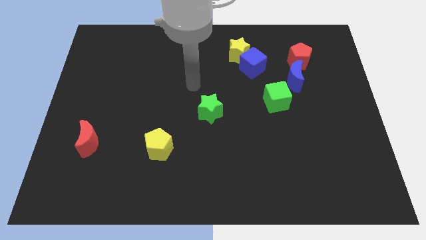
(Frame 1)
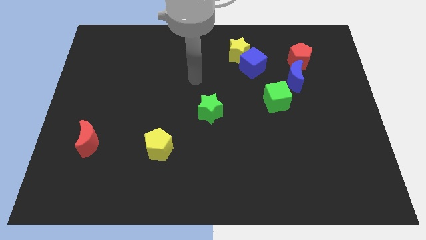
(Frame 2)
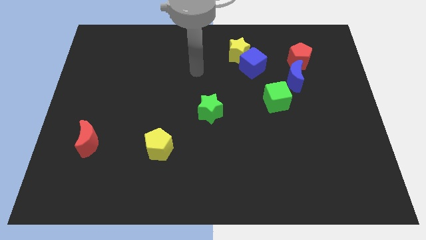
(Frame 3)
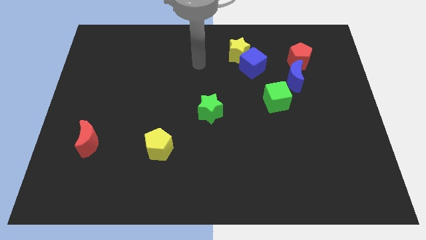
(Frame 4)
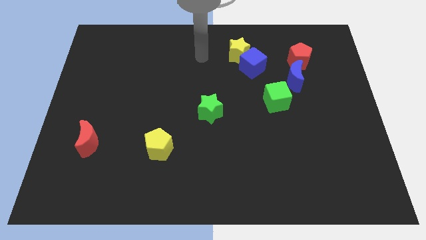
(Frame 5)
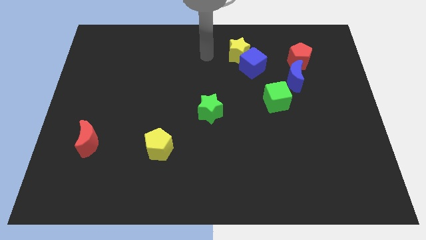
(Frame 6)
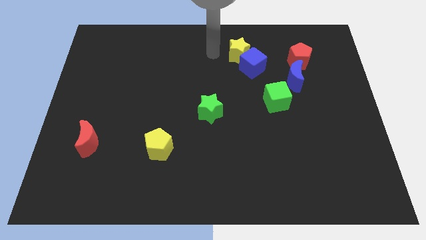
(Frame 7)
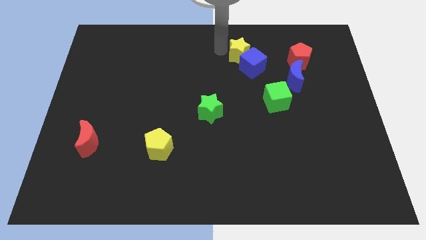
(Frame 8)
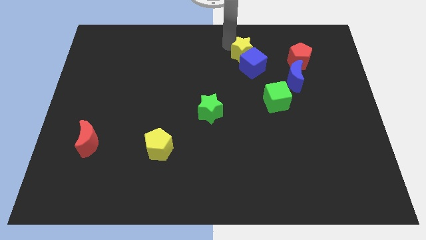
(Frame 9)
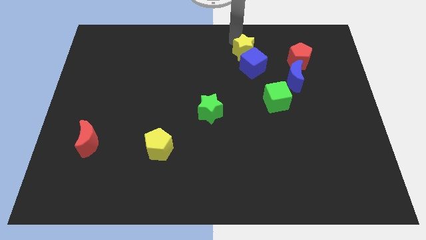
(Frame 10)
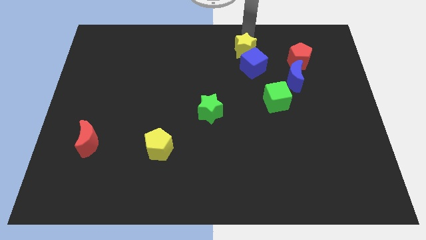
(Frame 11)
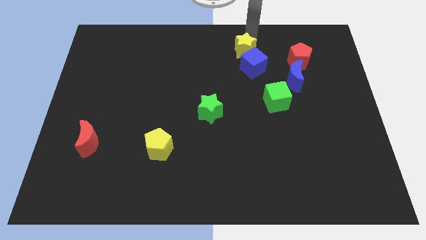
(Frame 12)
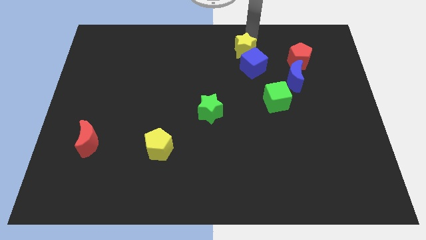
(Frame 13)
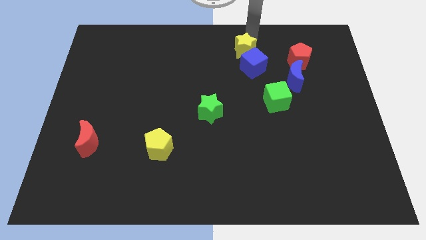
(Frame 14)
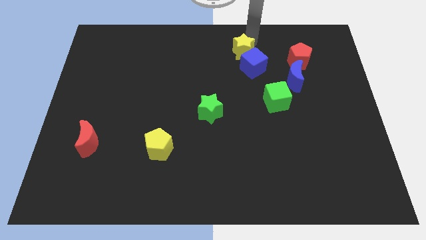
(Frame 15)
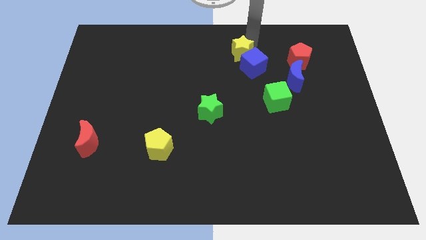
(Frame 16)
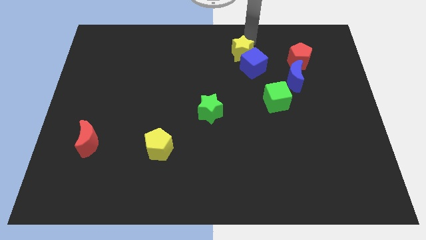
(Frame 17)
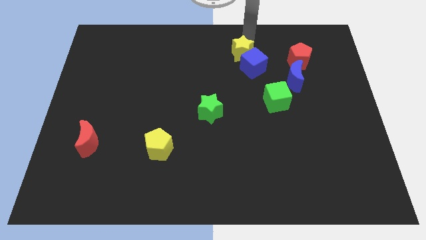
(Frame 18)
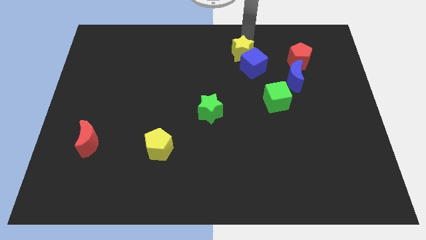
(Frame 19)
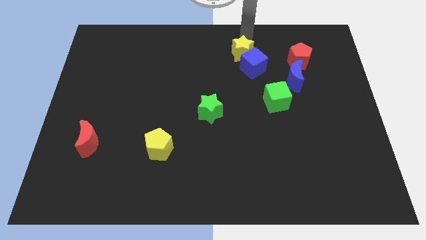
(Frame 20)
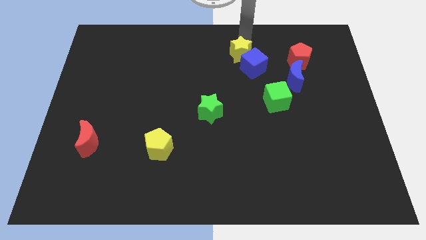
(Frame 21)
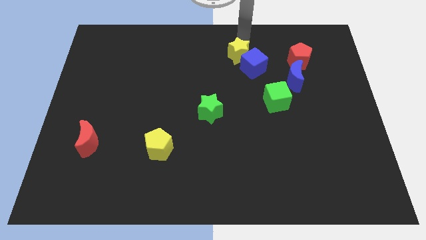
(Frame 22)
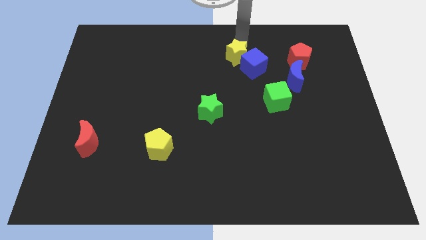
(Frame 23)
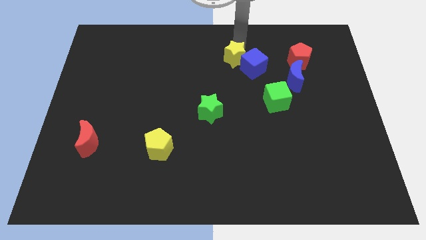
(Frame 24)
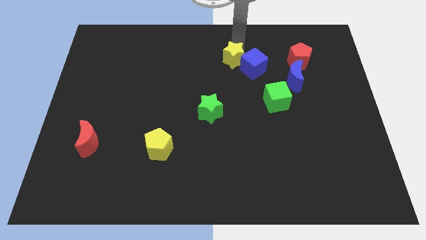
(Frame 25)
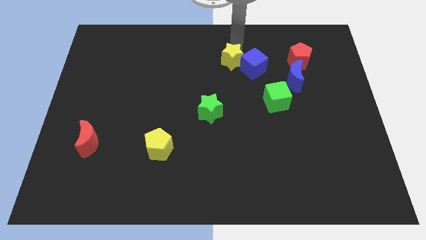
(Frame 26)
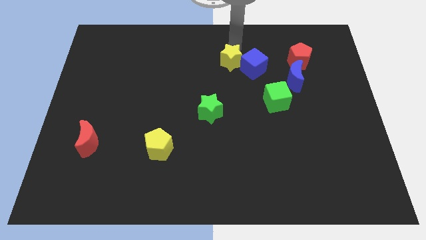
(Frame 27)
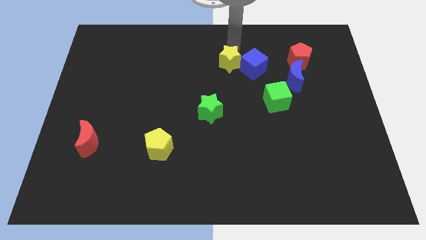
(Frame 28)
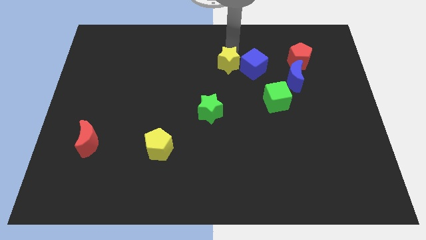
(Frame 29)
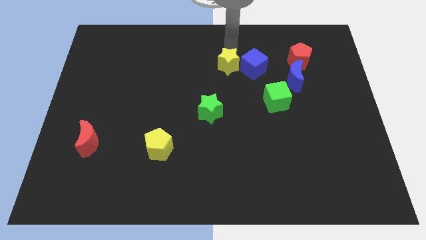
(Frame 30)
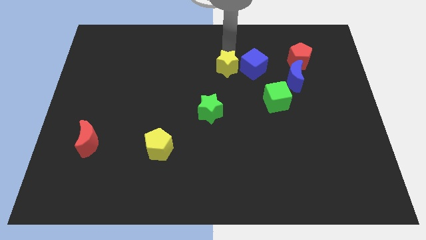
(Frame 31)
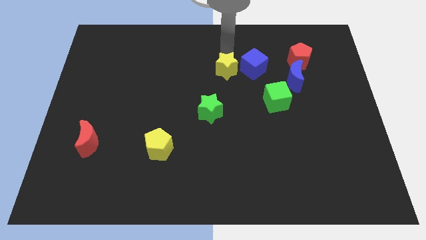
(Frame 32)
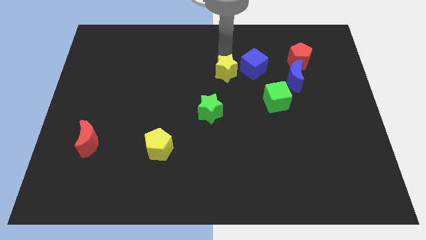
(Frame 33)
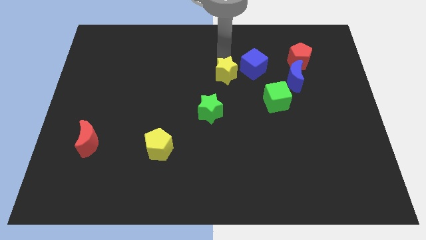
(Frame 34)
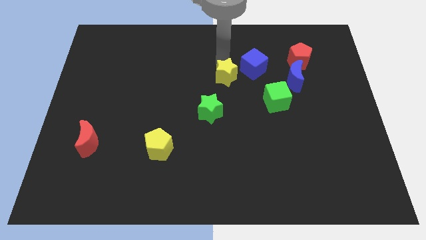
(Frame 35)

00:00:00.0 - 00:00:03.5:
slightly move the yellow star downwards

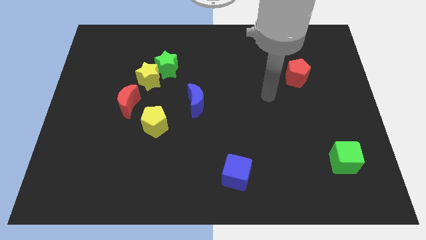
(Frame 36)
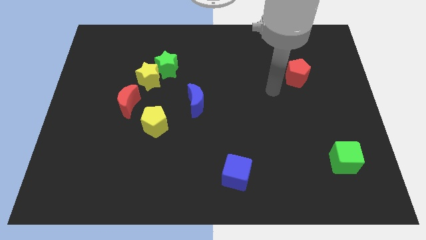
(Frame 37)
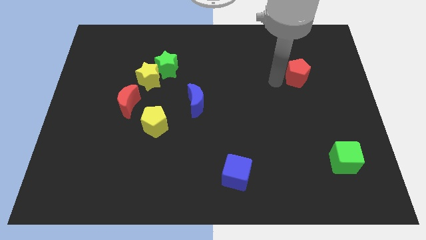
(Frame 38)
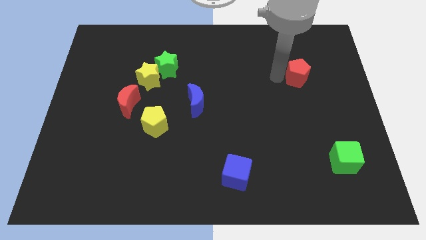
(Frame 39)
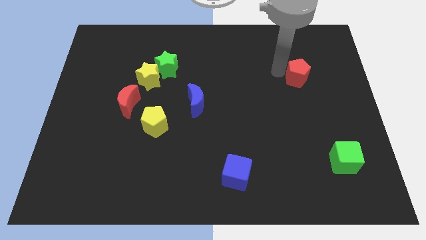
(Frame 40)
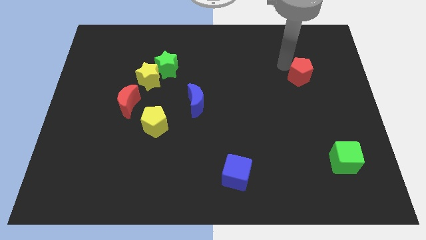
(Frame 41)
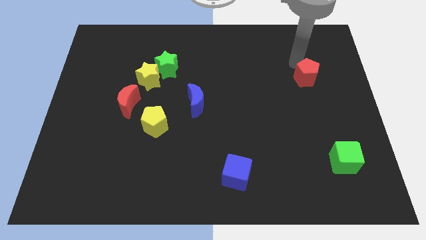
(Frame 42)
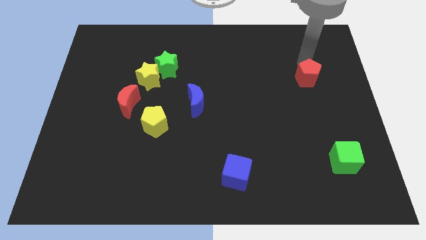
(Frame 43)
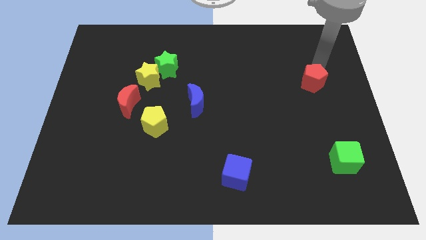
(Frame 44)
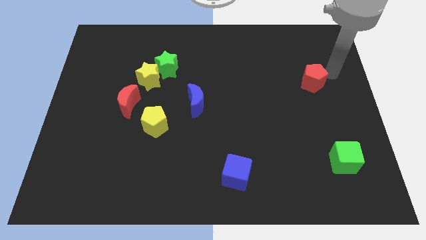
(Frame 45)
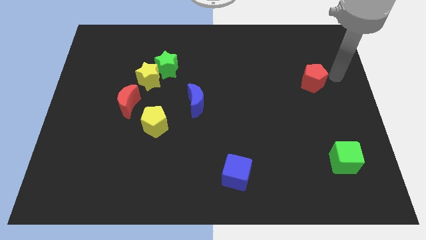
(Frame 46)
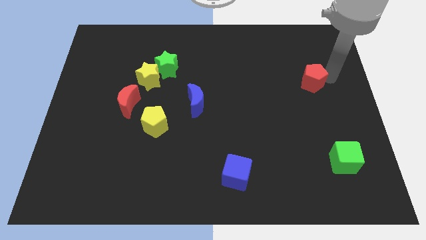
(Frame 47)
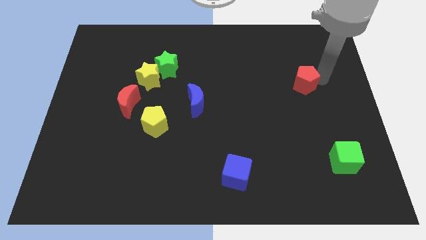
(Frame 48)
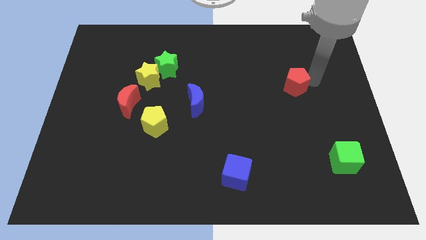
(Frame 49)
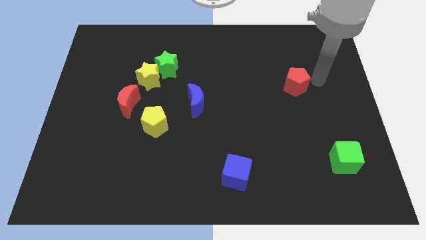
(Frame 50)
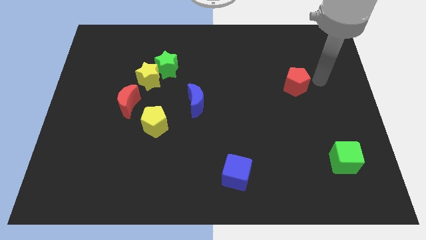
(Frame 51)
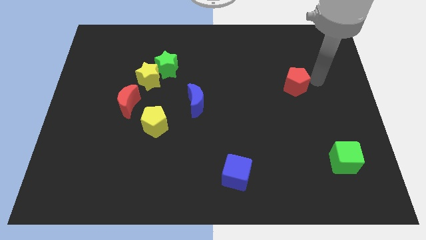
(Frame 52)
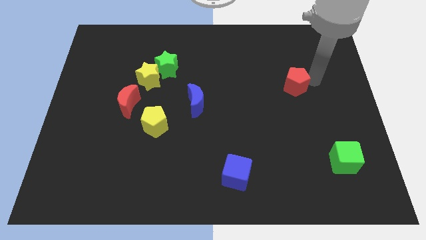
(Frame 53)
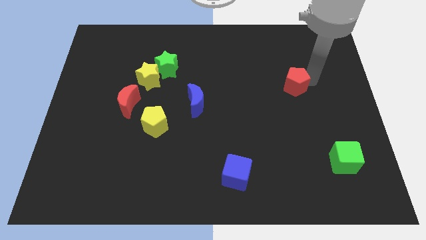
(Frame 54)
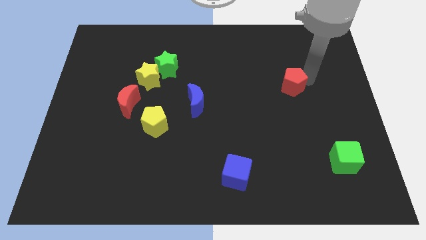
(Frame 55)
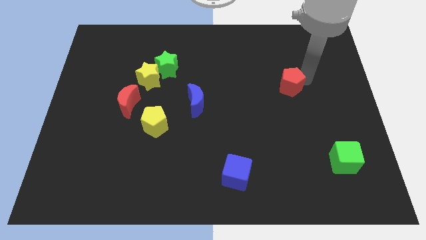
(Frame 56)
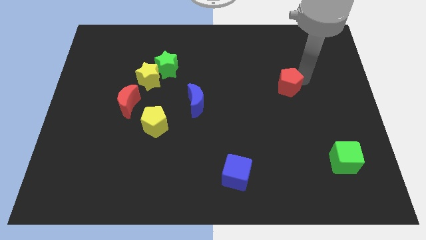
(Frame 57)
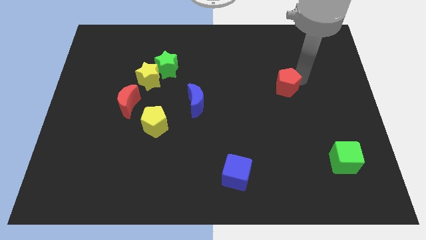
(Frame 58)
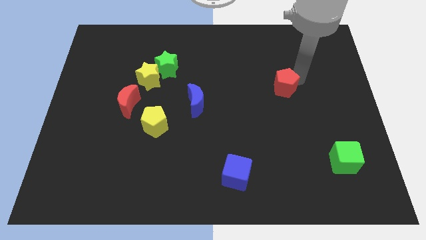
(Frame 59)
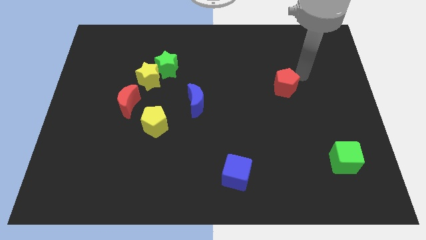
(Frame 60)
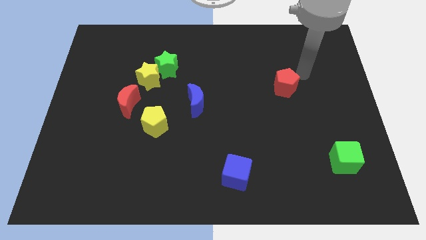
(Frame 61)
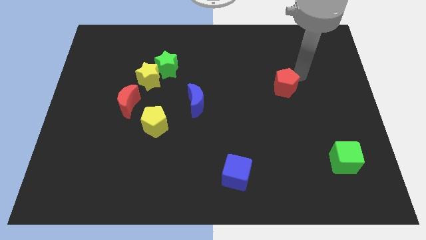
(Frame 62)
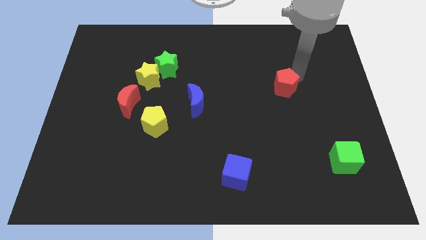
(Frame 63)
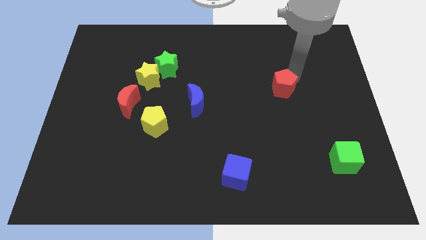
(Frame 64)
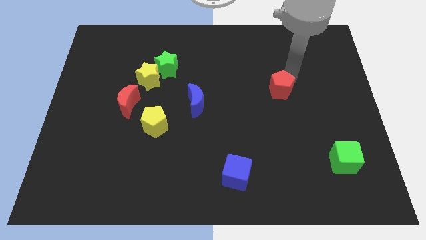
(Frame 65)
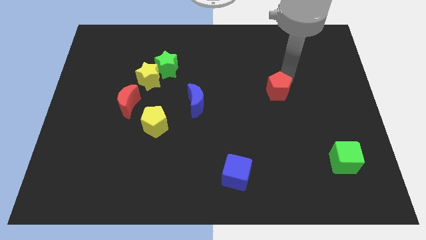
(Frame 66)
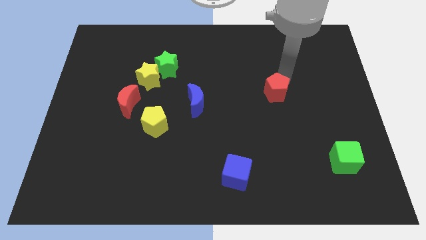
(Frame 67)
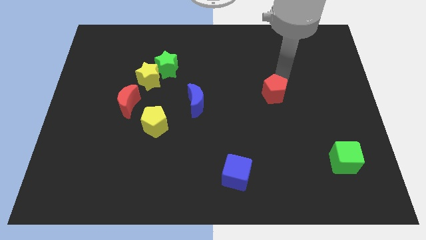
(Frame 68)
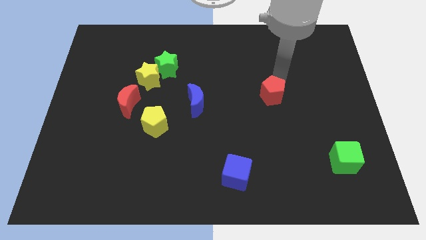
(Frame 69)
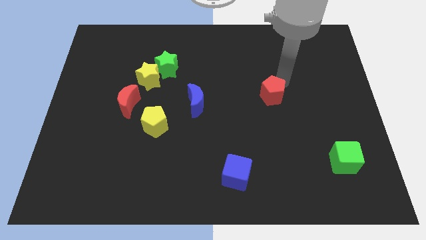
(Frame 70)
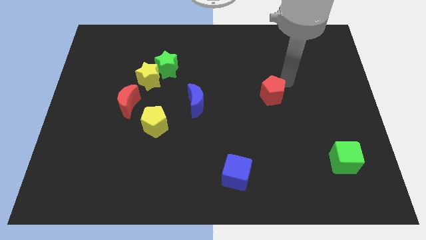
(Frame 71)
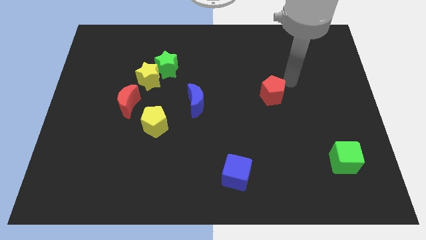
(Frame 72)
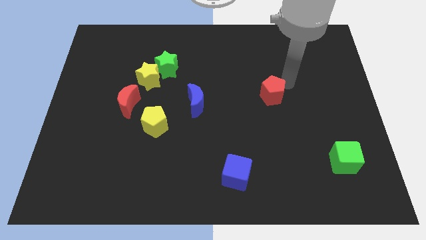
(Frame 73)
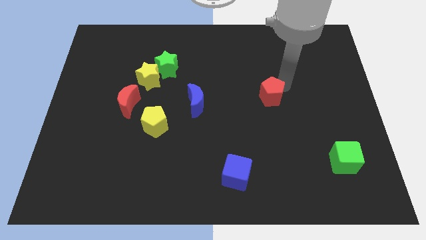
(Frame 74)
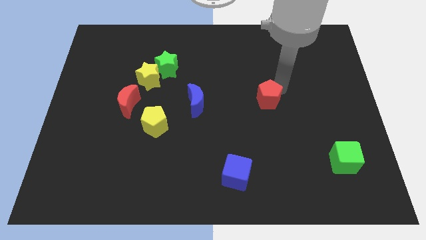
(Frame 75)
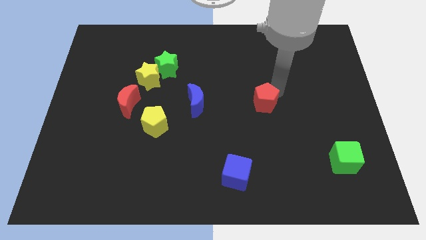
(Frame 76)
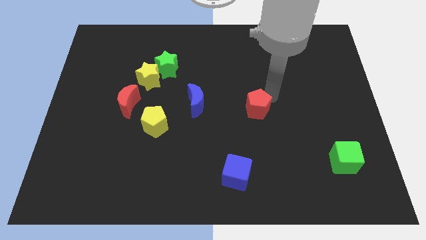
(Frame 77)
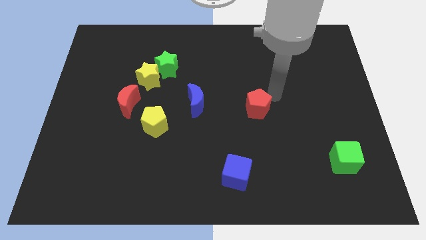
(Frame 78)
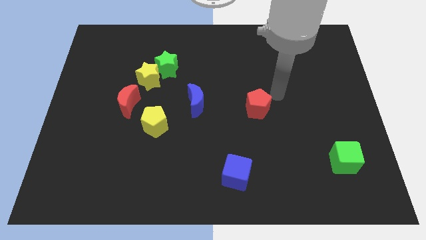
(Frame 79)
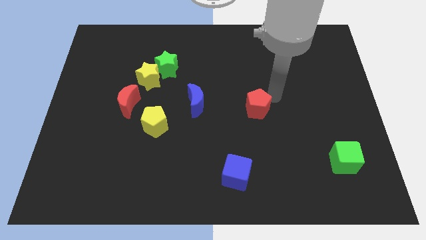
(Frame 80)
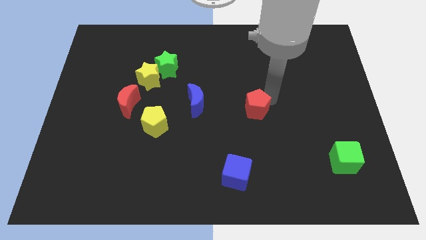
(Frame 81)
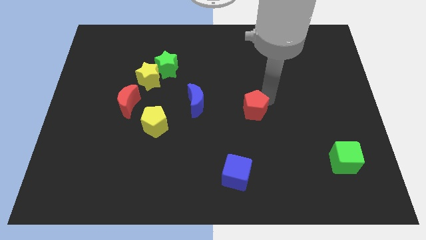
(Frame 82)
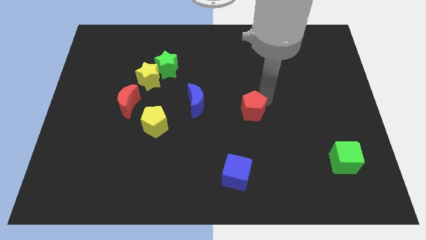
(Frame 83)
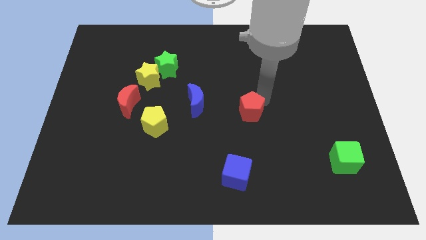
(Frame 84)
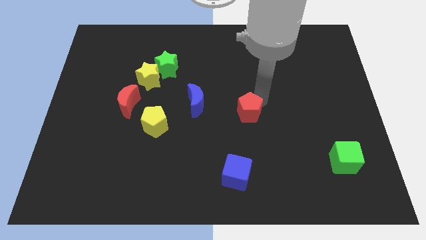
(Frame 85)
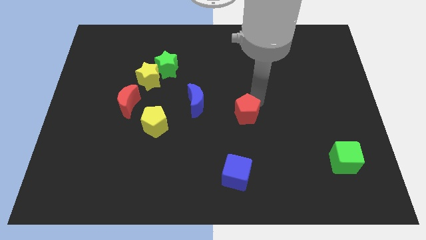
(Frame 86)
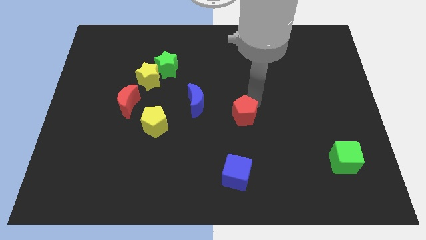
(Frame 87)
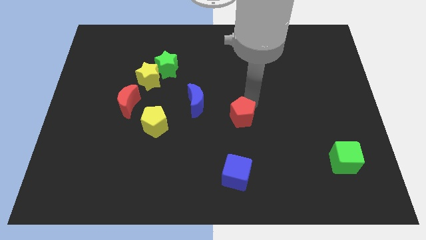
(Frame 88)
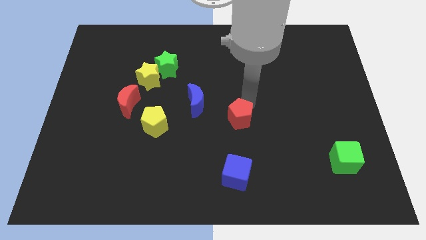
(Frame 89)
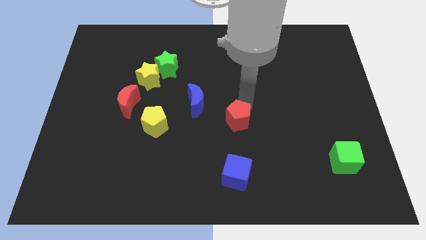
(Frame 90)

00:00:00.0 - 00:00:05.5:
slide the red pentagon down and left diagonally
